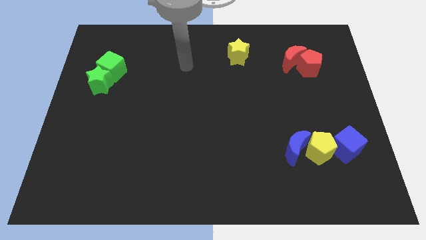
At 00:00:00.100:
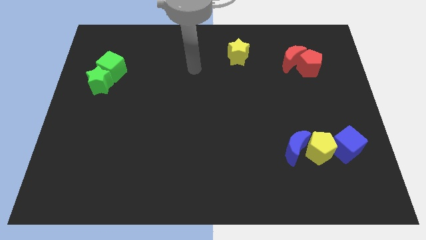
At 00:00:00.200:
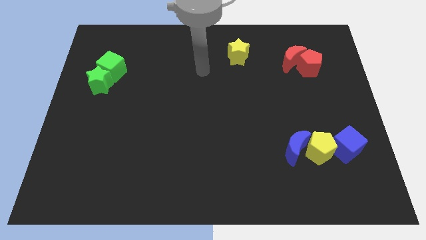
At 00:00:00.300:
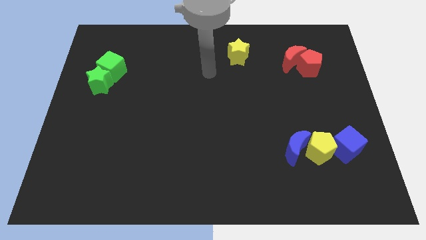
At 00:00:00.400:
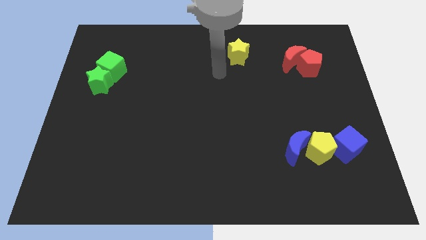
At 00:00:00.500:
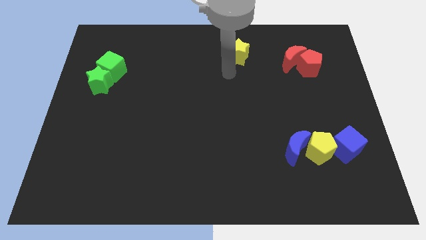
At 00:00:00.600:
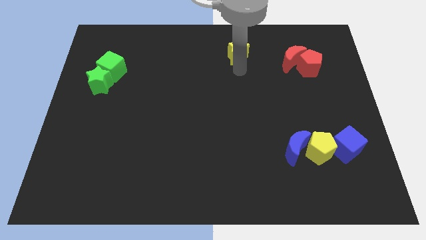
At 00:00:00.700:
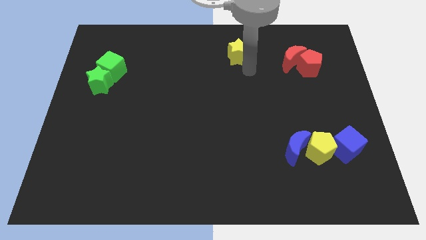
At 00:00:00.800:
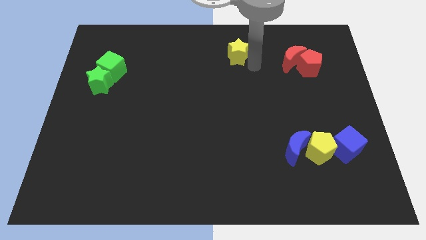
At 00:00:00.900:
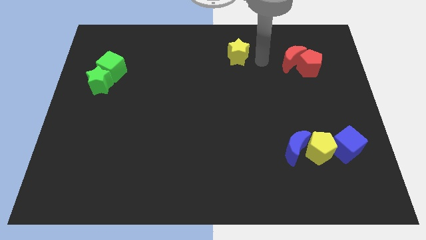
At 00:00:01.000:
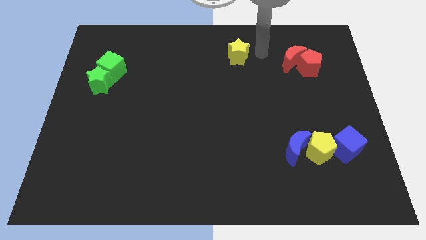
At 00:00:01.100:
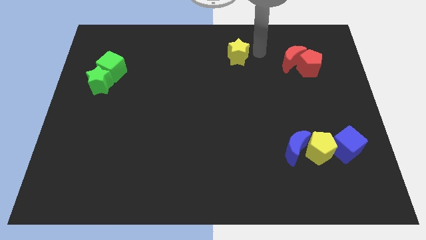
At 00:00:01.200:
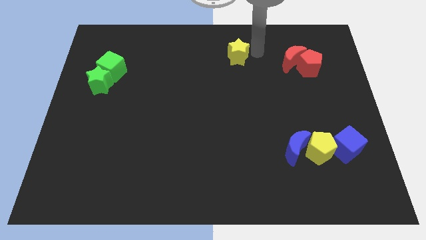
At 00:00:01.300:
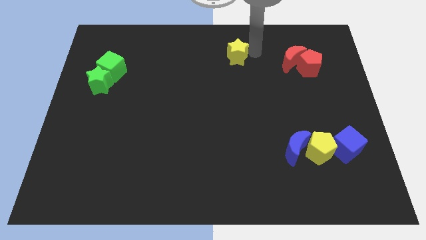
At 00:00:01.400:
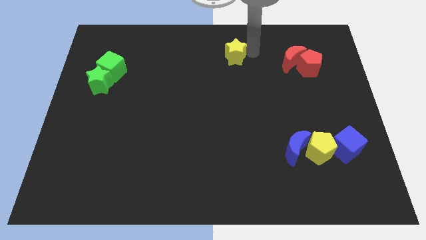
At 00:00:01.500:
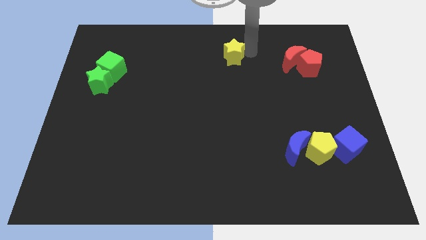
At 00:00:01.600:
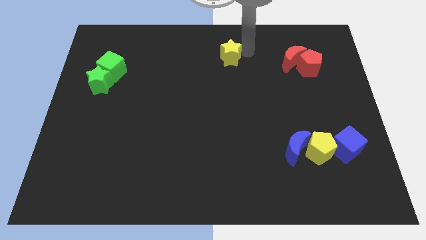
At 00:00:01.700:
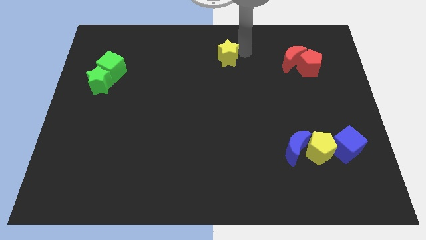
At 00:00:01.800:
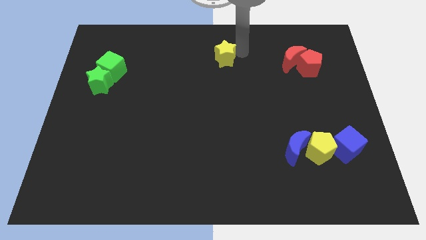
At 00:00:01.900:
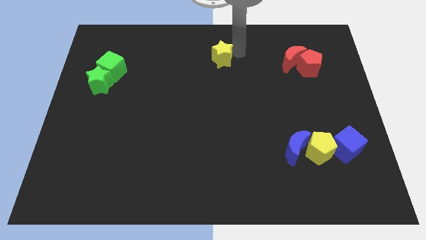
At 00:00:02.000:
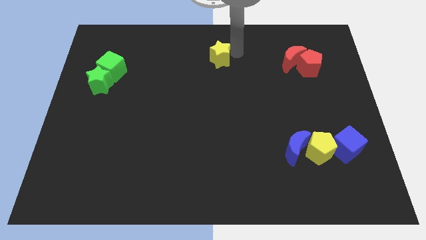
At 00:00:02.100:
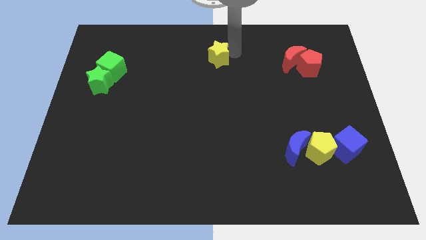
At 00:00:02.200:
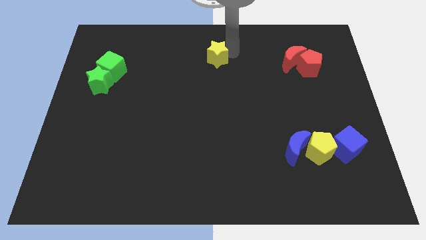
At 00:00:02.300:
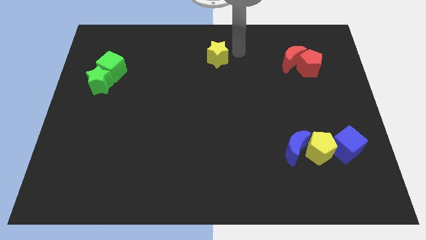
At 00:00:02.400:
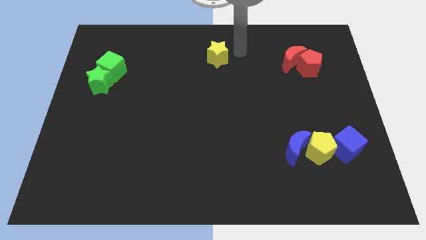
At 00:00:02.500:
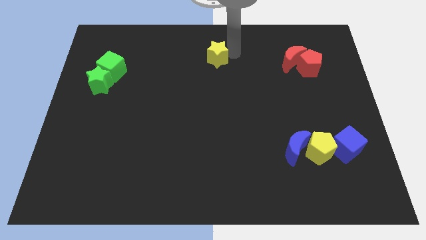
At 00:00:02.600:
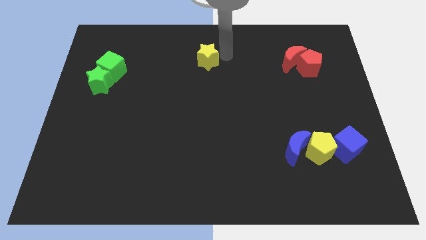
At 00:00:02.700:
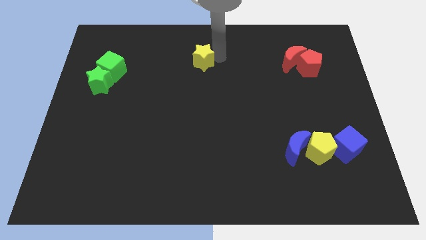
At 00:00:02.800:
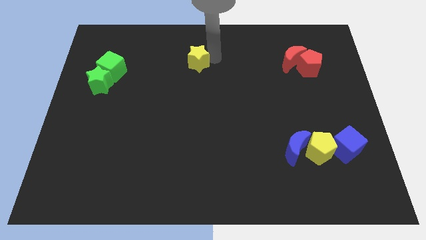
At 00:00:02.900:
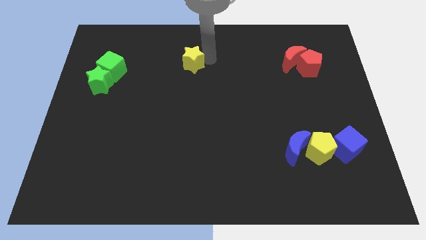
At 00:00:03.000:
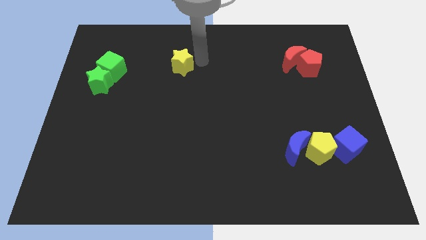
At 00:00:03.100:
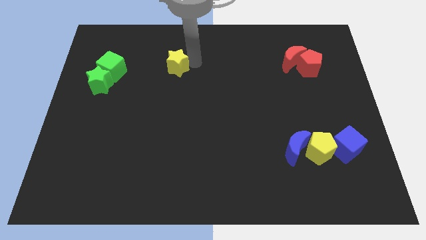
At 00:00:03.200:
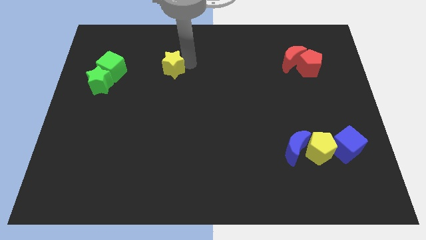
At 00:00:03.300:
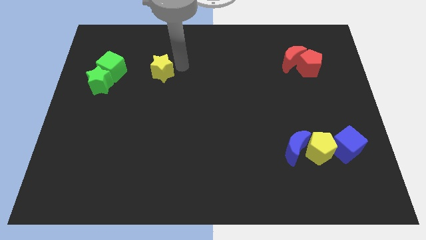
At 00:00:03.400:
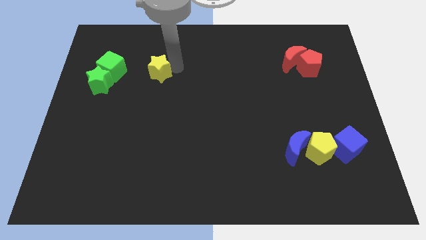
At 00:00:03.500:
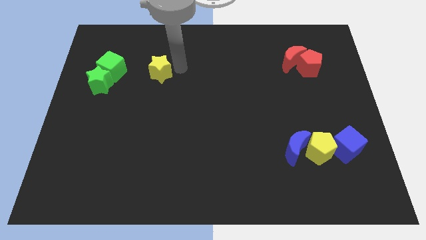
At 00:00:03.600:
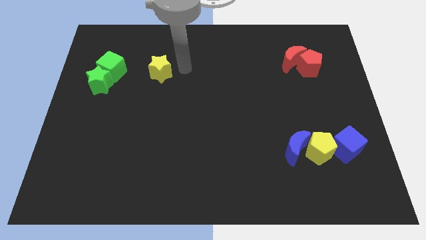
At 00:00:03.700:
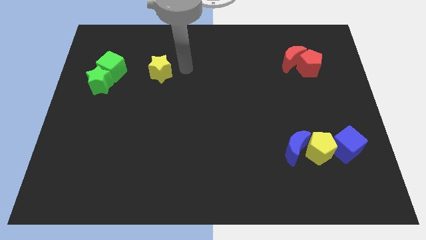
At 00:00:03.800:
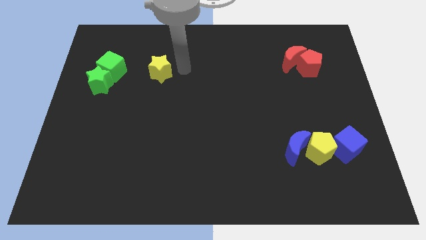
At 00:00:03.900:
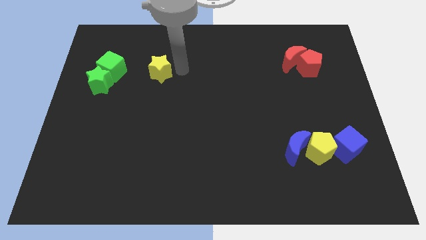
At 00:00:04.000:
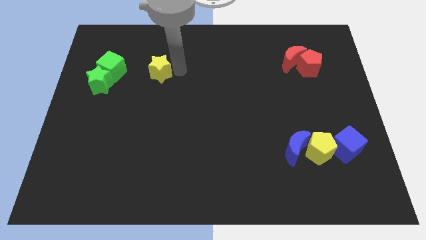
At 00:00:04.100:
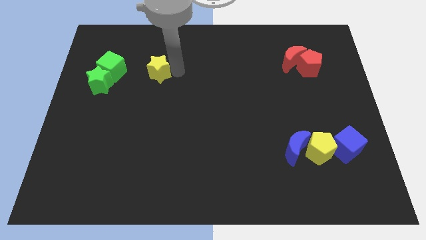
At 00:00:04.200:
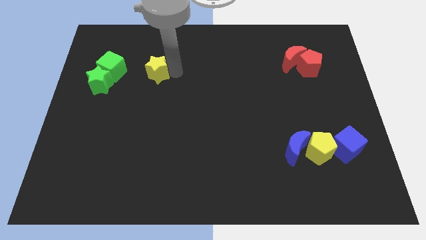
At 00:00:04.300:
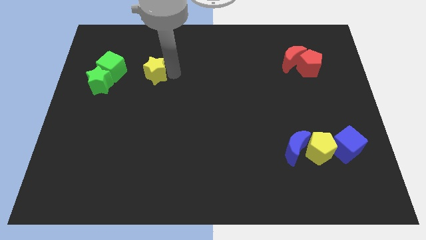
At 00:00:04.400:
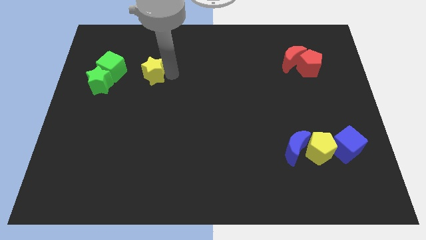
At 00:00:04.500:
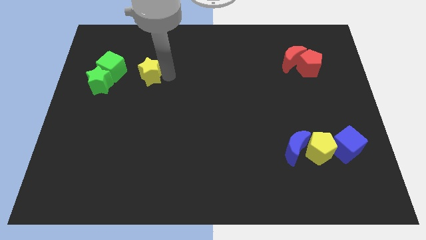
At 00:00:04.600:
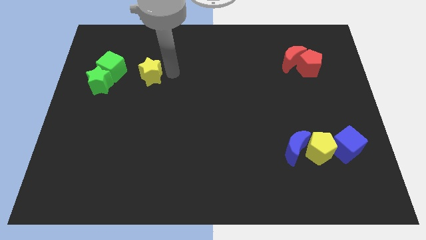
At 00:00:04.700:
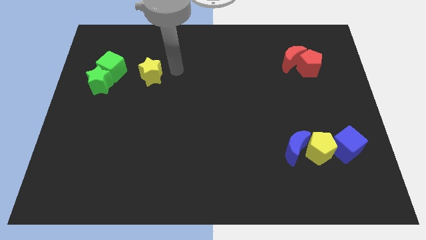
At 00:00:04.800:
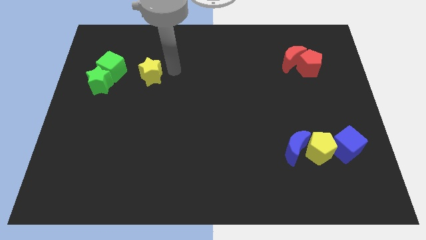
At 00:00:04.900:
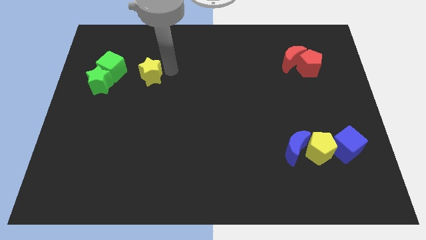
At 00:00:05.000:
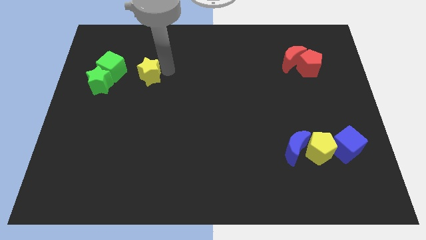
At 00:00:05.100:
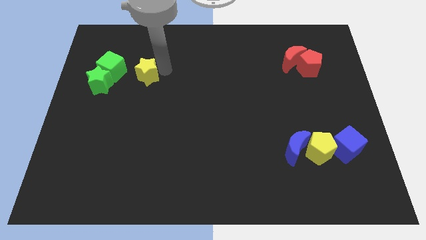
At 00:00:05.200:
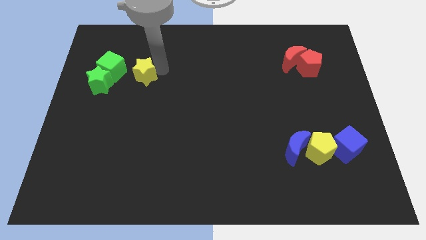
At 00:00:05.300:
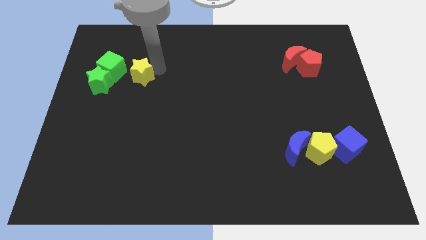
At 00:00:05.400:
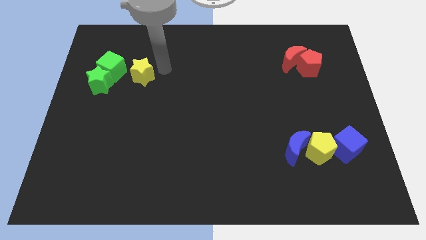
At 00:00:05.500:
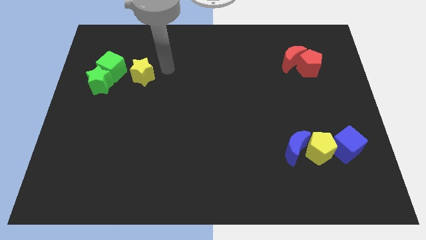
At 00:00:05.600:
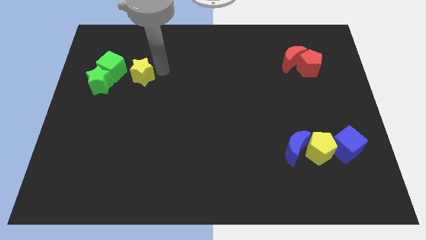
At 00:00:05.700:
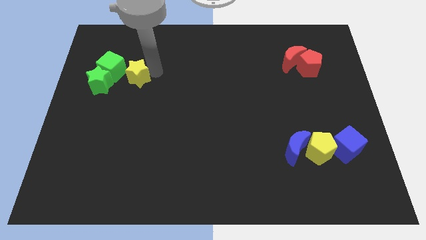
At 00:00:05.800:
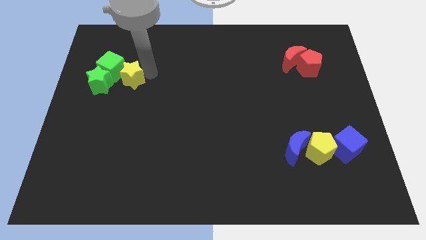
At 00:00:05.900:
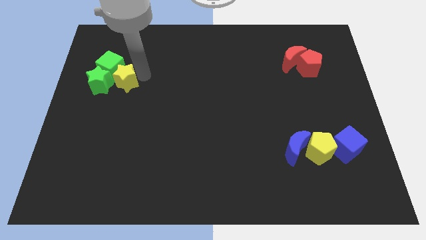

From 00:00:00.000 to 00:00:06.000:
push the yellow star close to the green star
